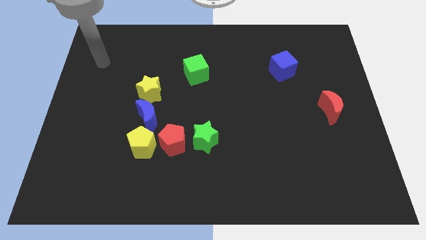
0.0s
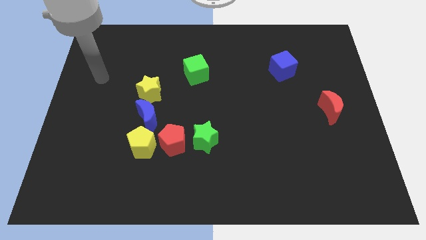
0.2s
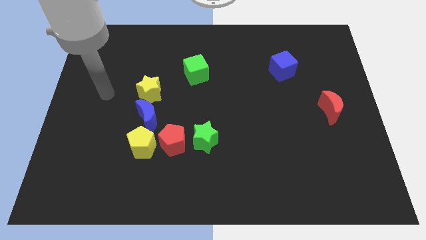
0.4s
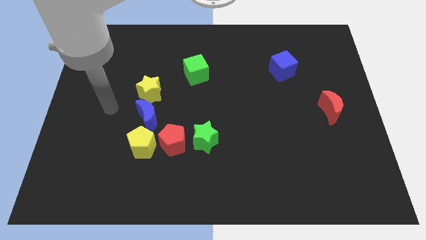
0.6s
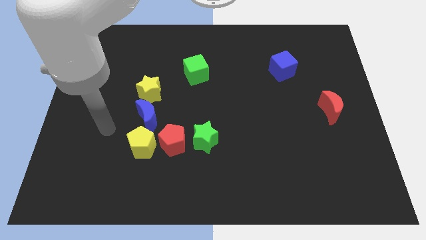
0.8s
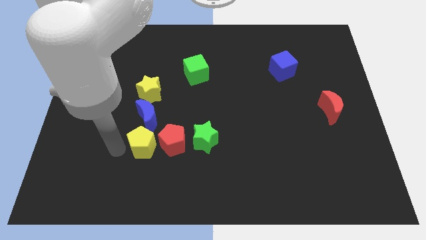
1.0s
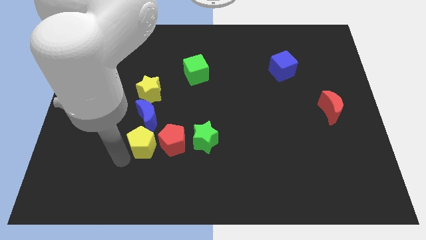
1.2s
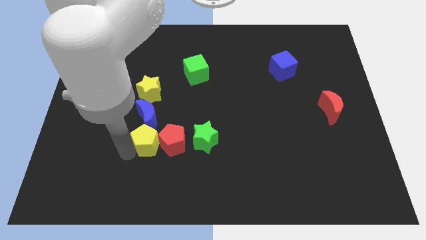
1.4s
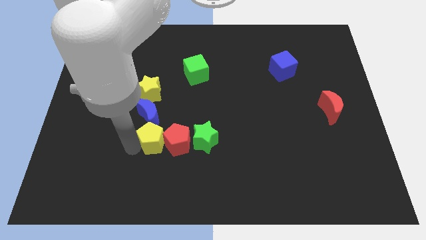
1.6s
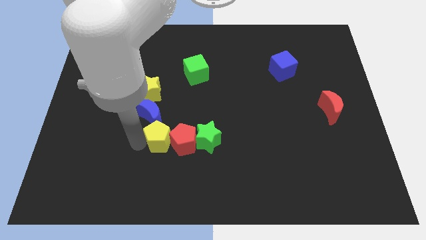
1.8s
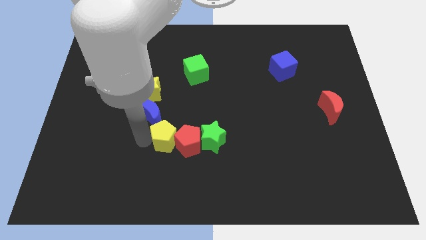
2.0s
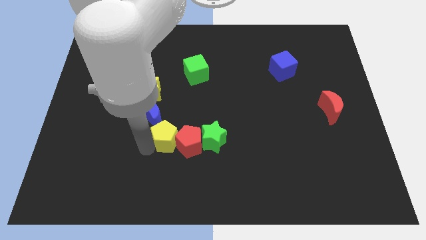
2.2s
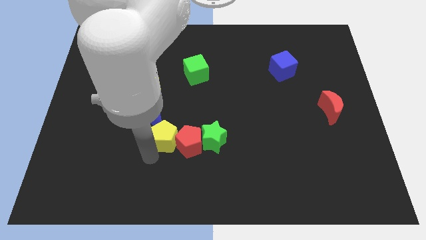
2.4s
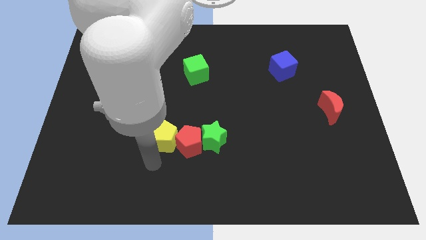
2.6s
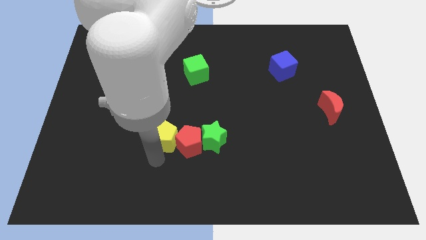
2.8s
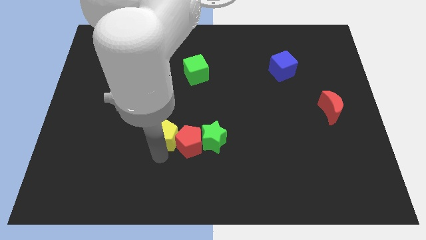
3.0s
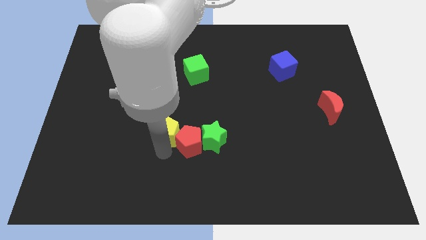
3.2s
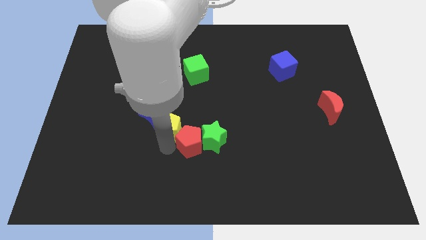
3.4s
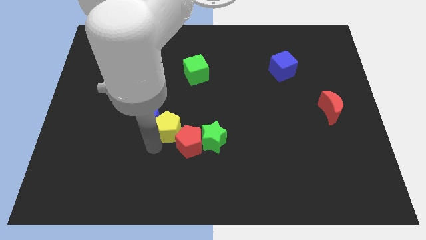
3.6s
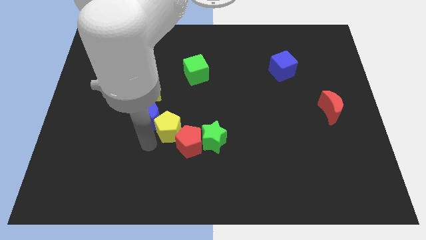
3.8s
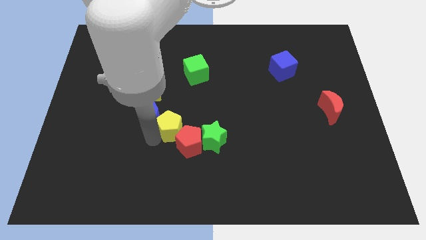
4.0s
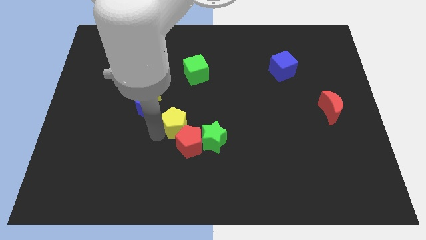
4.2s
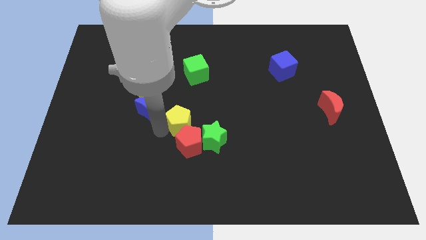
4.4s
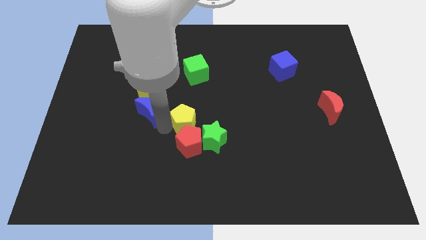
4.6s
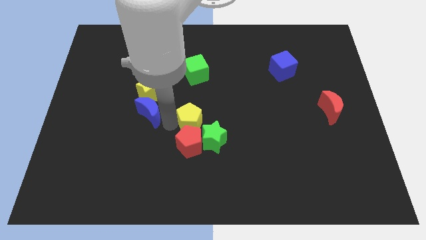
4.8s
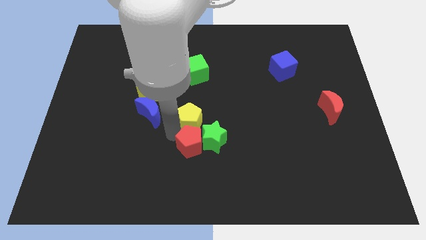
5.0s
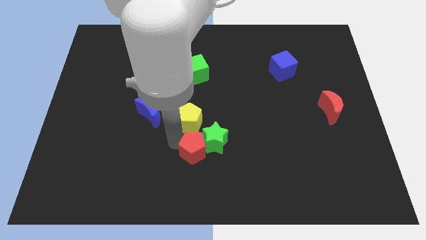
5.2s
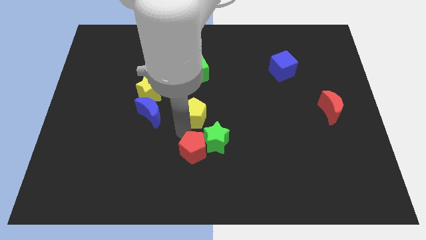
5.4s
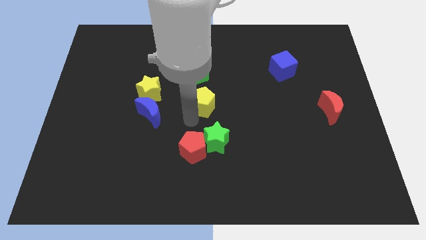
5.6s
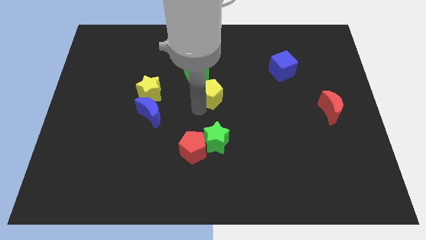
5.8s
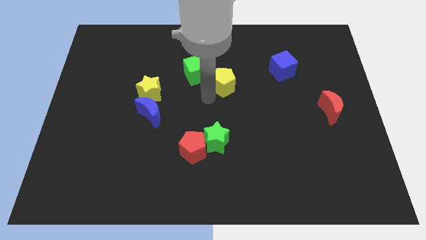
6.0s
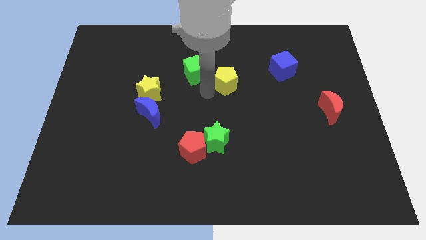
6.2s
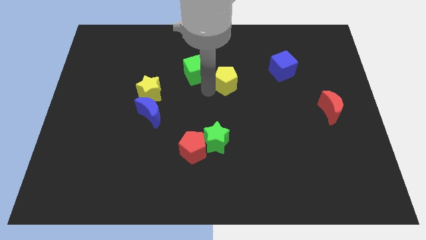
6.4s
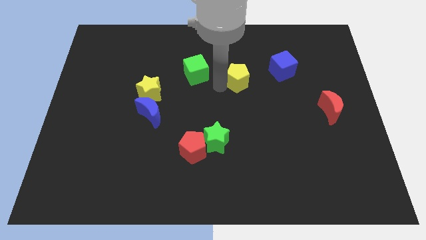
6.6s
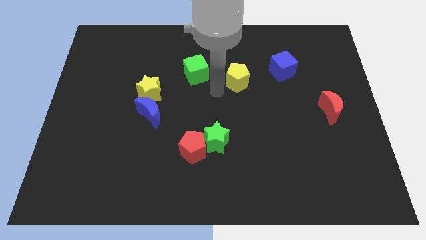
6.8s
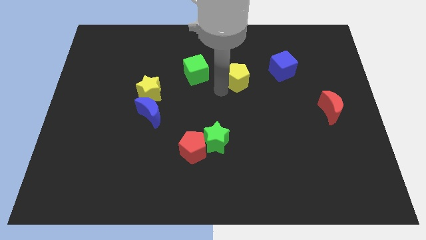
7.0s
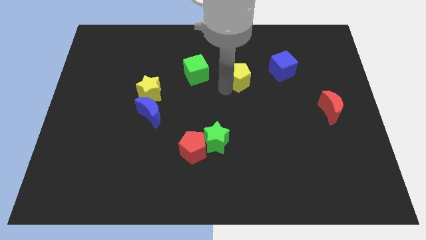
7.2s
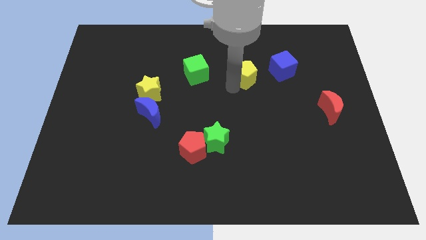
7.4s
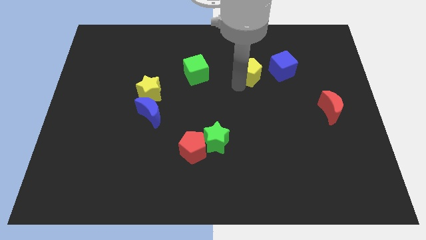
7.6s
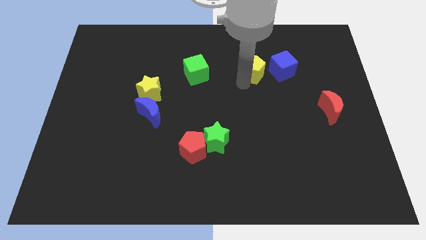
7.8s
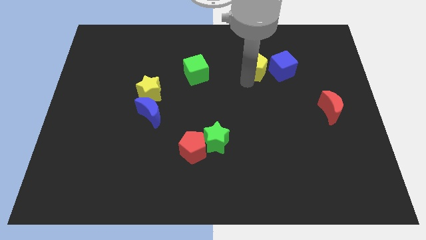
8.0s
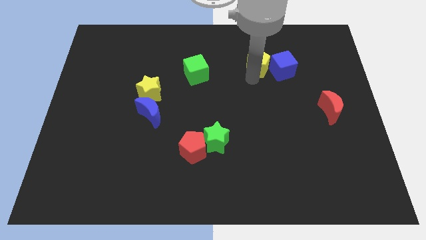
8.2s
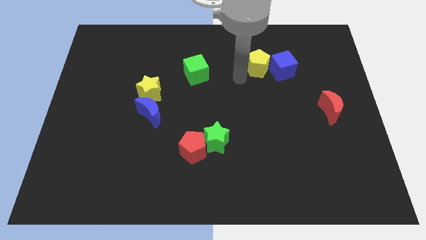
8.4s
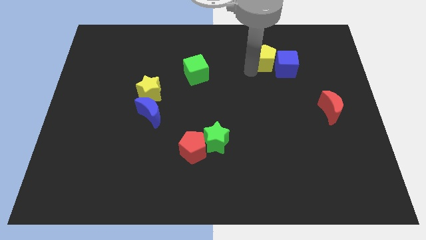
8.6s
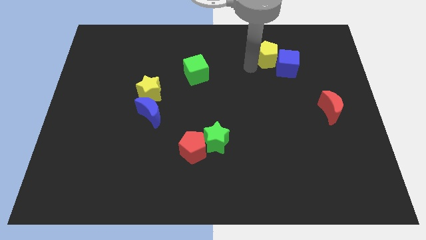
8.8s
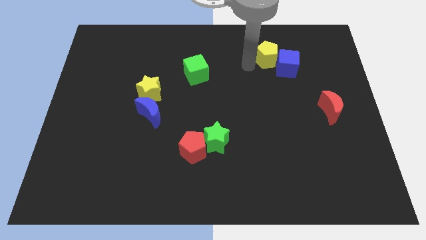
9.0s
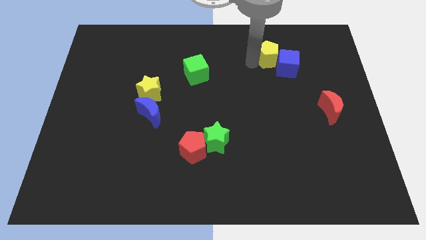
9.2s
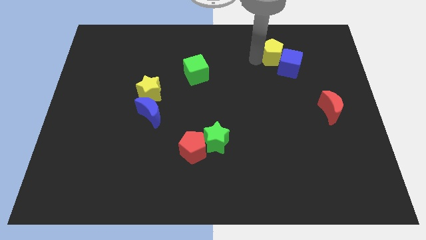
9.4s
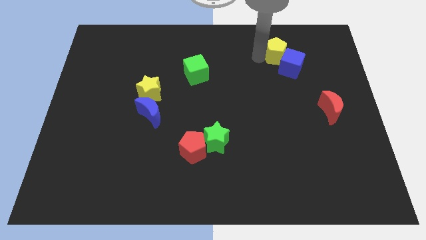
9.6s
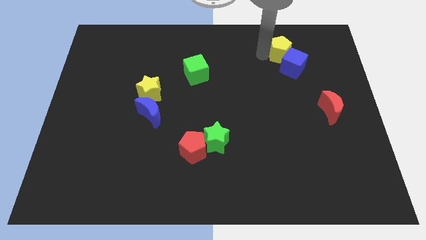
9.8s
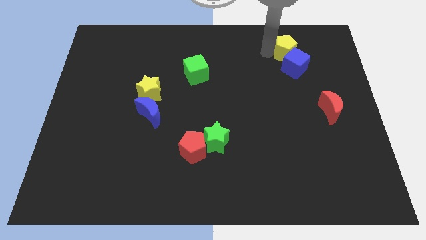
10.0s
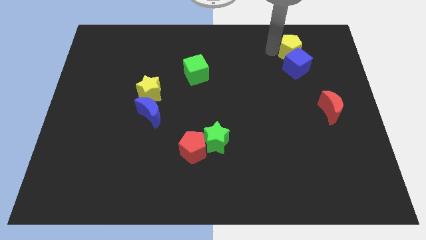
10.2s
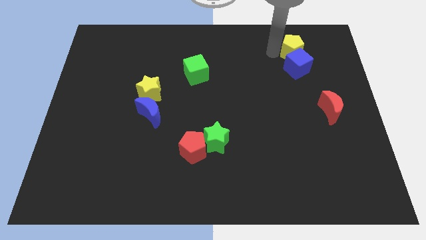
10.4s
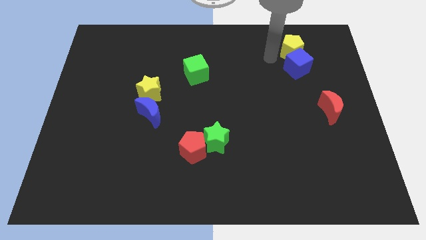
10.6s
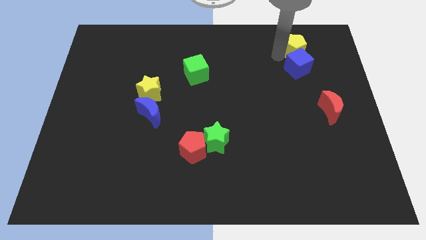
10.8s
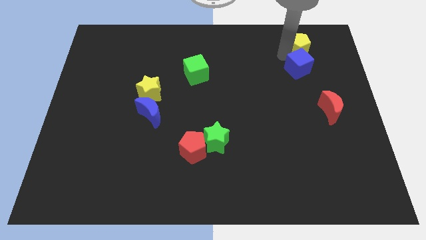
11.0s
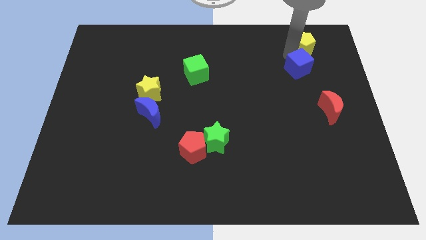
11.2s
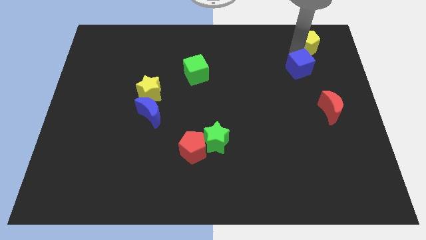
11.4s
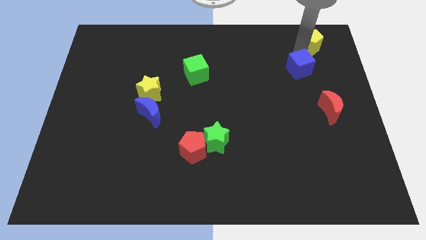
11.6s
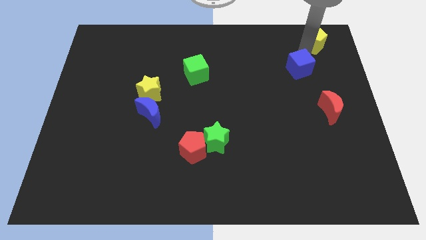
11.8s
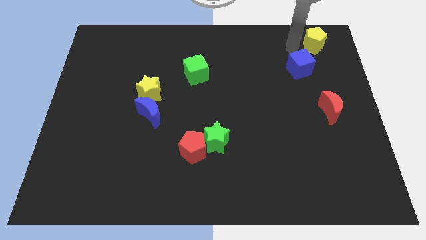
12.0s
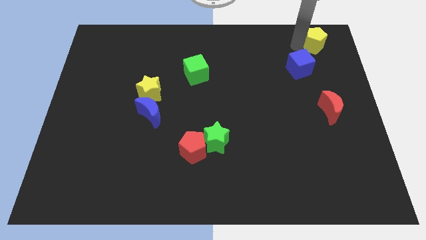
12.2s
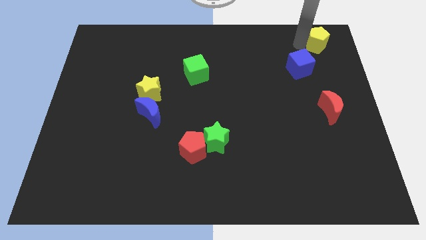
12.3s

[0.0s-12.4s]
put the yellow pentagon to the upper right corner

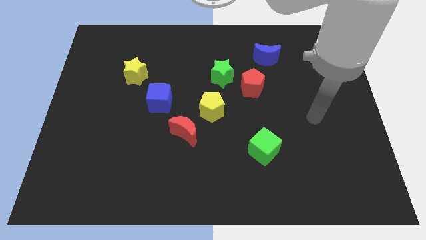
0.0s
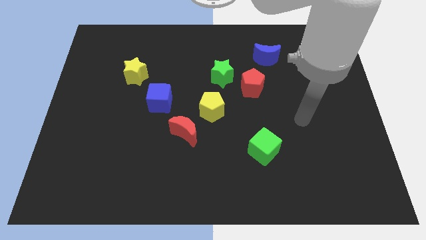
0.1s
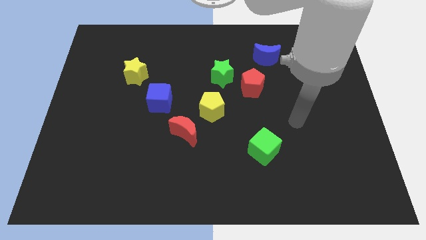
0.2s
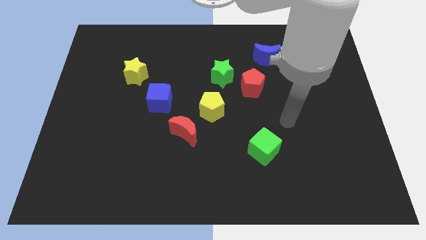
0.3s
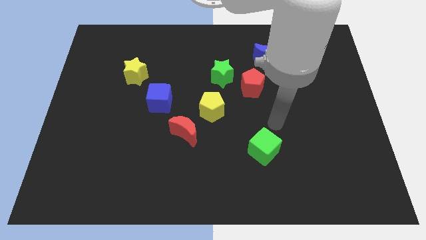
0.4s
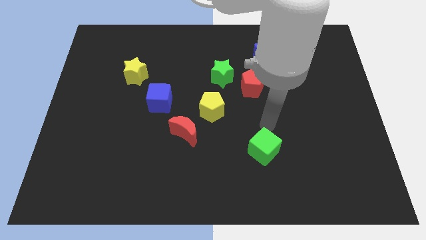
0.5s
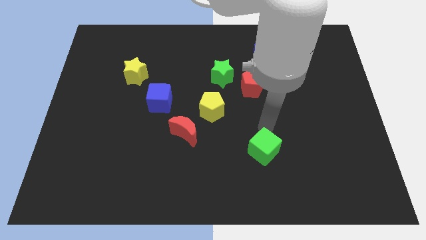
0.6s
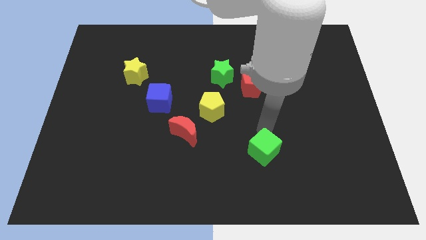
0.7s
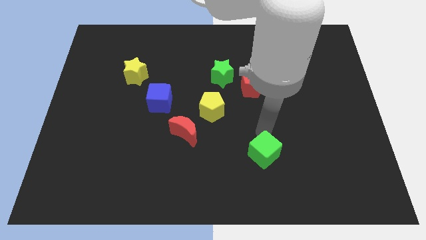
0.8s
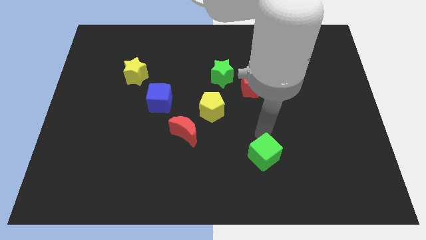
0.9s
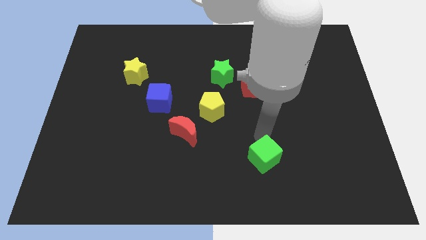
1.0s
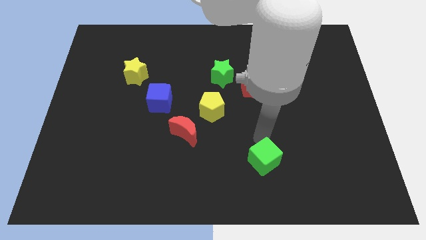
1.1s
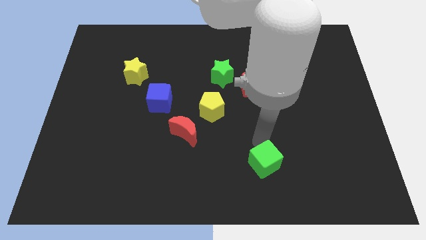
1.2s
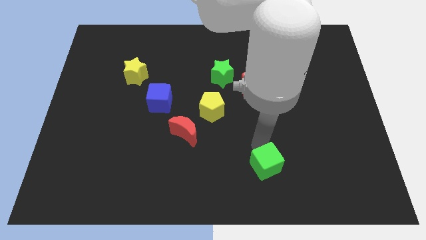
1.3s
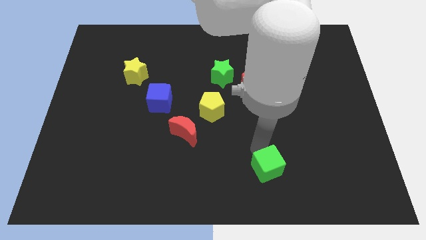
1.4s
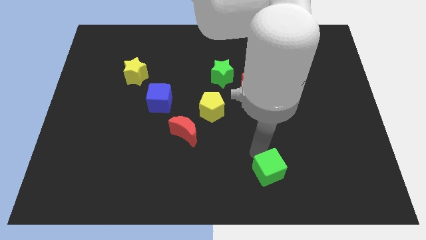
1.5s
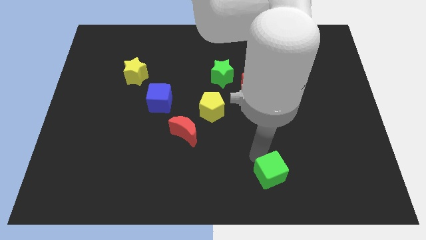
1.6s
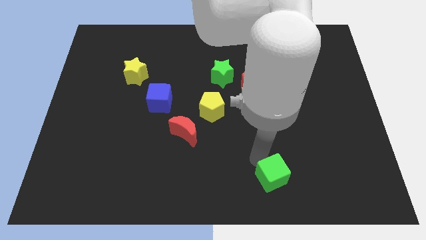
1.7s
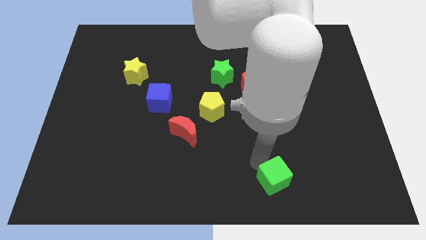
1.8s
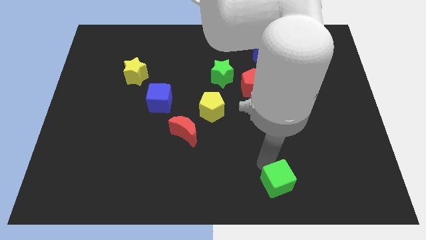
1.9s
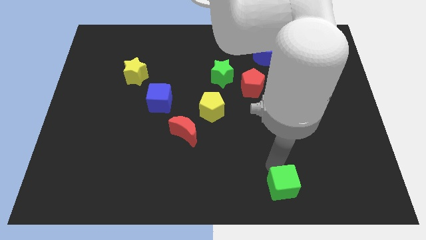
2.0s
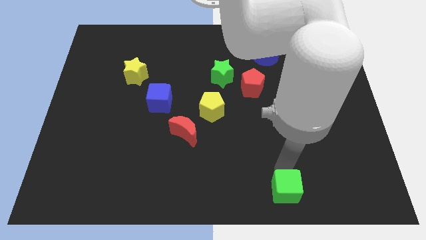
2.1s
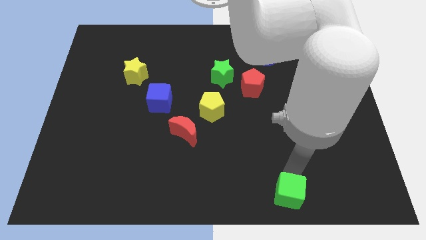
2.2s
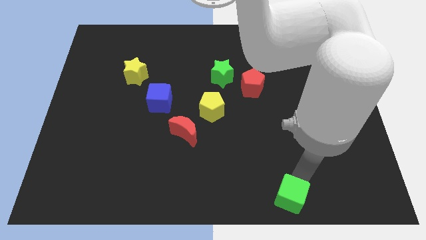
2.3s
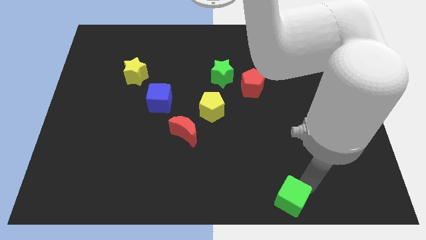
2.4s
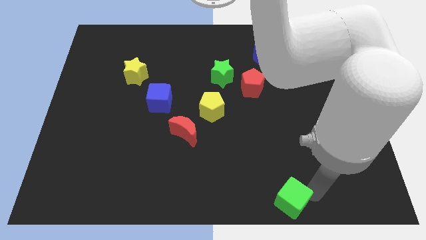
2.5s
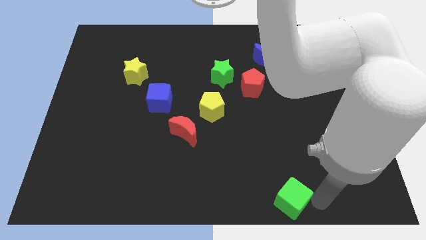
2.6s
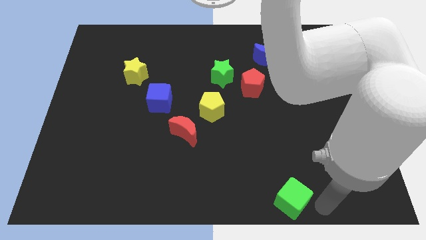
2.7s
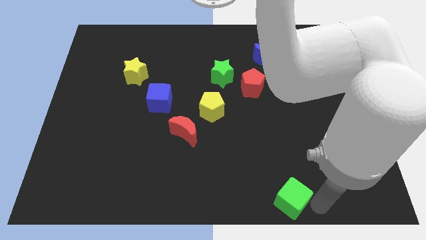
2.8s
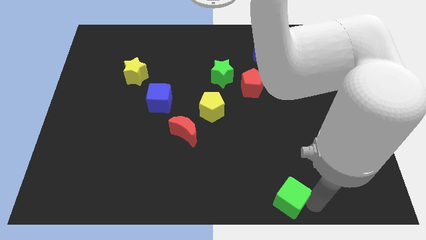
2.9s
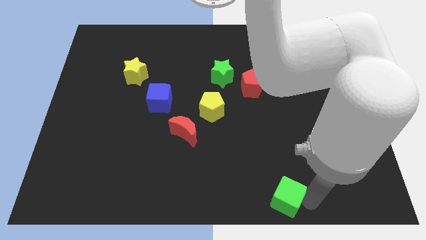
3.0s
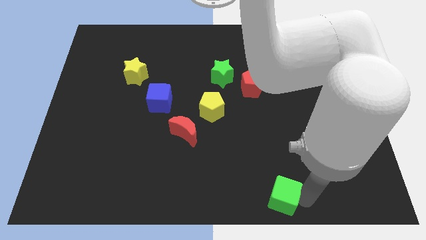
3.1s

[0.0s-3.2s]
push the green cube to the bottom
